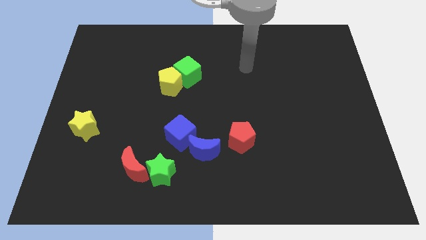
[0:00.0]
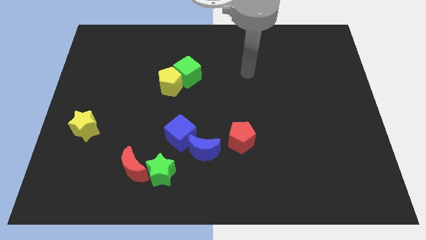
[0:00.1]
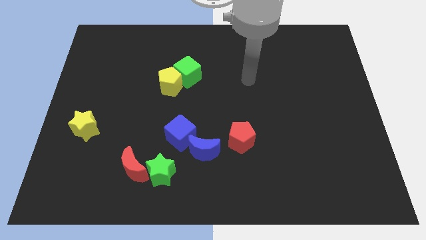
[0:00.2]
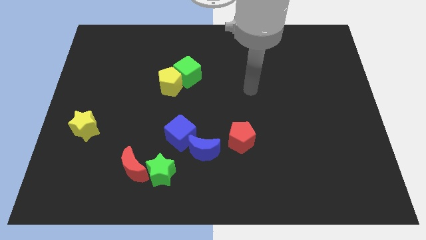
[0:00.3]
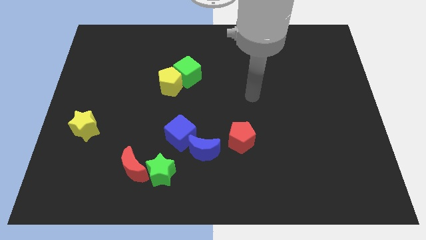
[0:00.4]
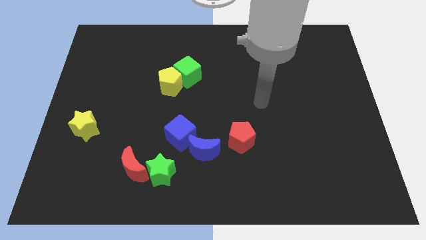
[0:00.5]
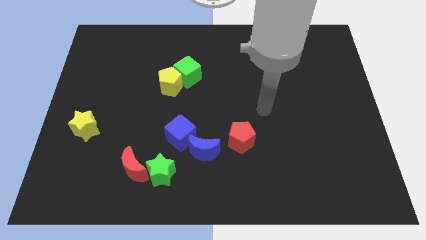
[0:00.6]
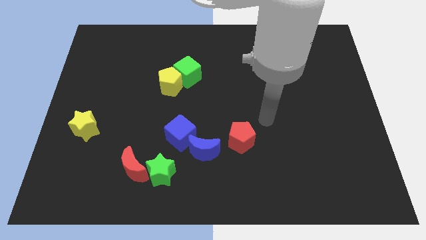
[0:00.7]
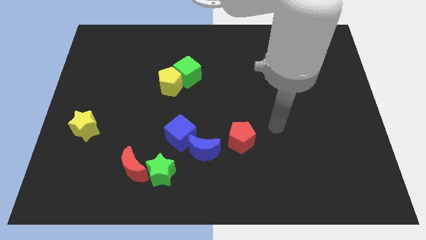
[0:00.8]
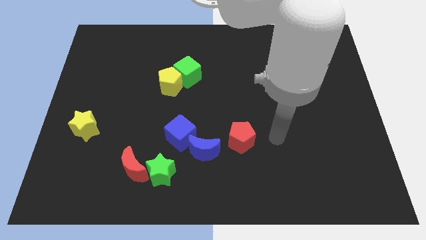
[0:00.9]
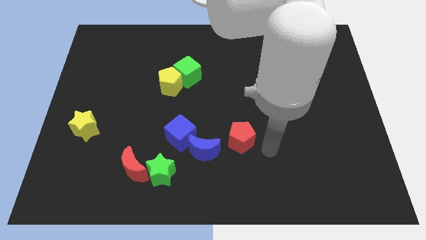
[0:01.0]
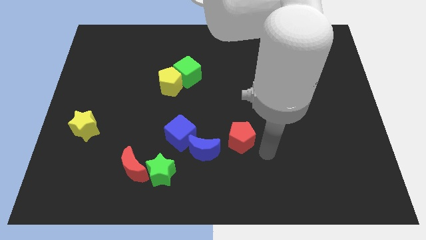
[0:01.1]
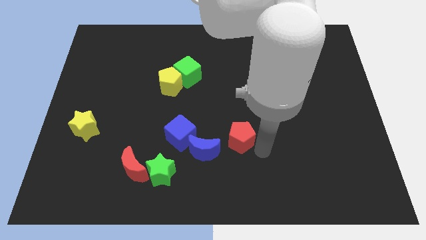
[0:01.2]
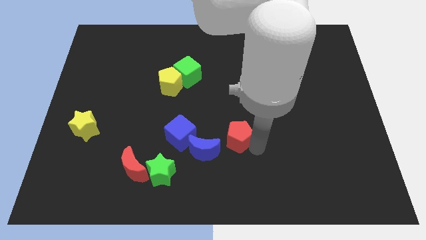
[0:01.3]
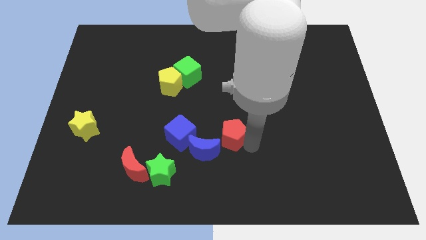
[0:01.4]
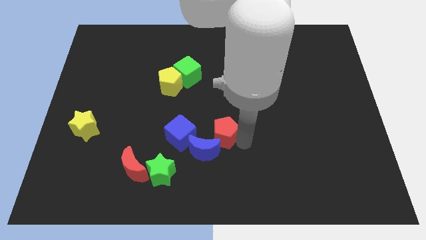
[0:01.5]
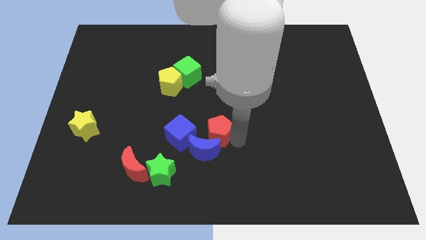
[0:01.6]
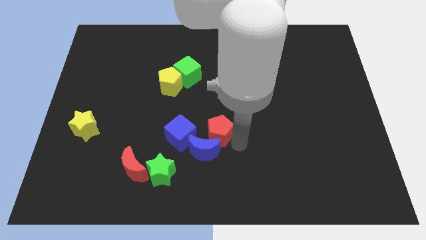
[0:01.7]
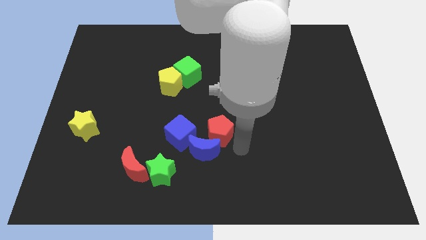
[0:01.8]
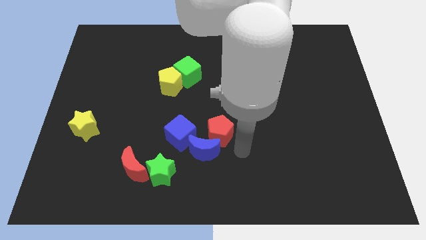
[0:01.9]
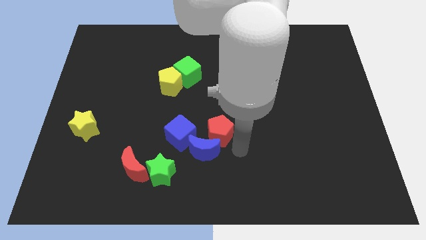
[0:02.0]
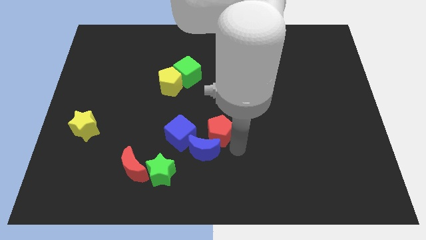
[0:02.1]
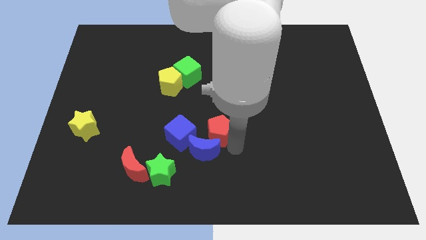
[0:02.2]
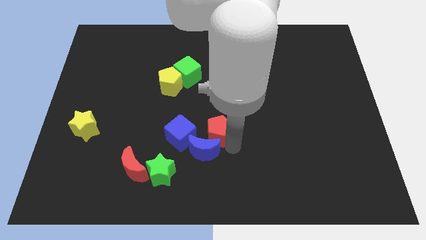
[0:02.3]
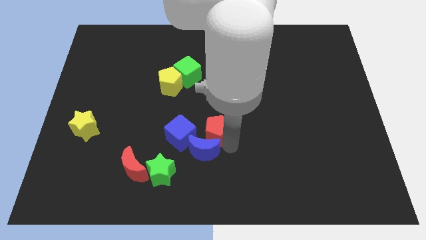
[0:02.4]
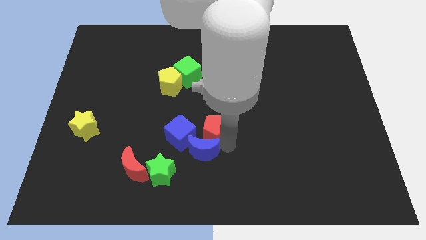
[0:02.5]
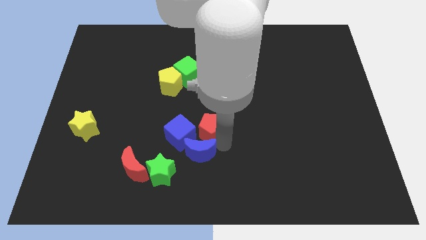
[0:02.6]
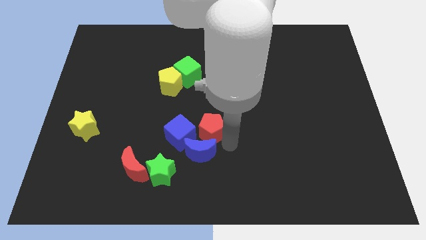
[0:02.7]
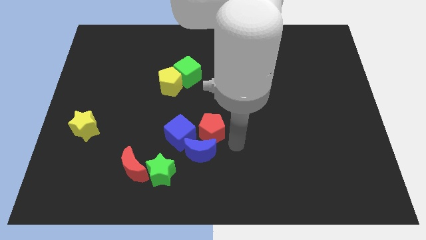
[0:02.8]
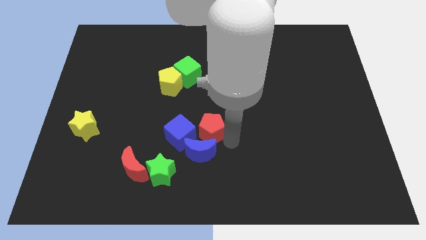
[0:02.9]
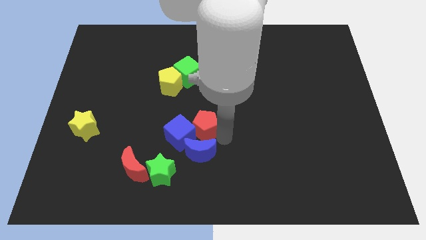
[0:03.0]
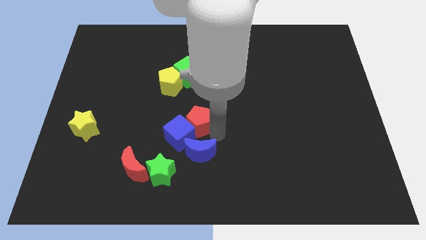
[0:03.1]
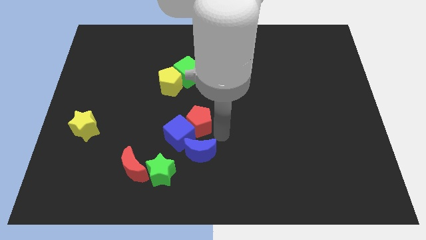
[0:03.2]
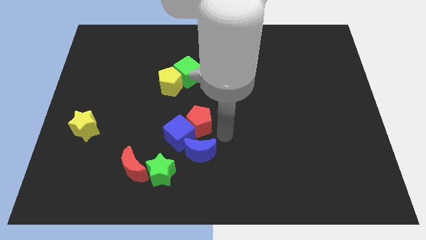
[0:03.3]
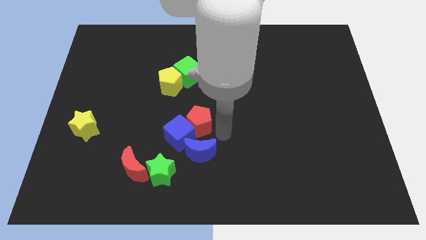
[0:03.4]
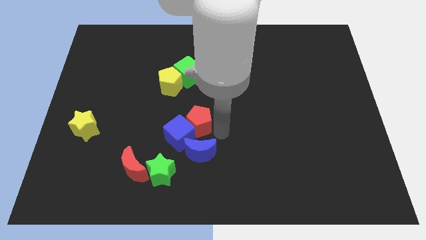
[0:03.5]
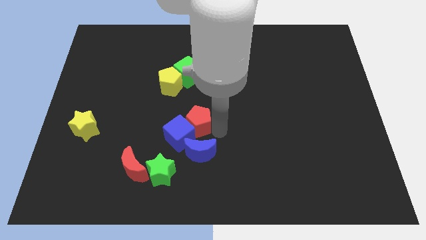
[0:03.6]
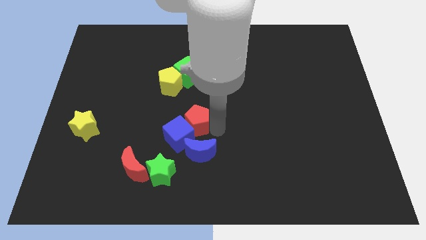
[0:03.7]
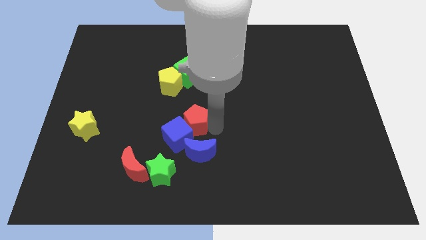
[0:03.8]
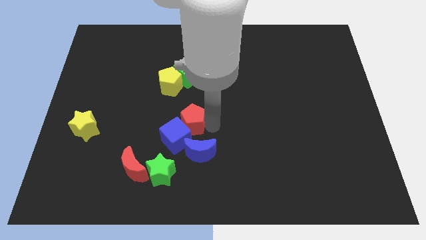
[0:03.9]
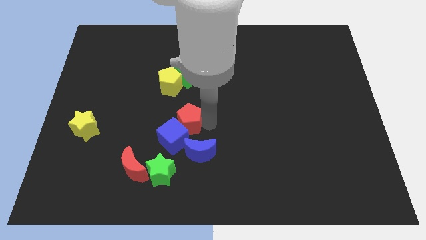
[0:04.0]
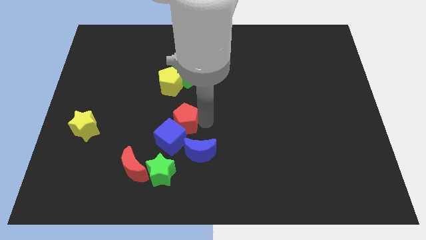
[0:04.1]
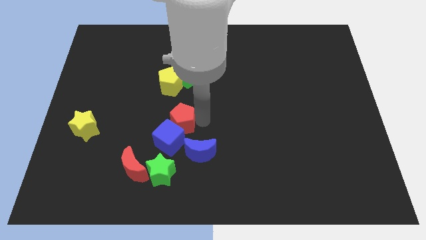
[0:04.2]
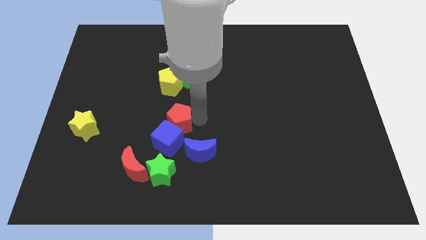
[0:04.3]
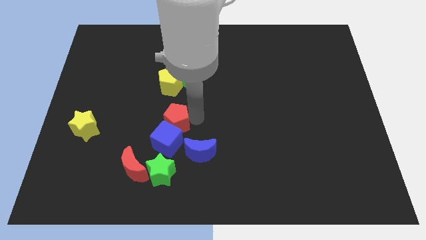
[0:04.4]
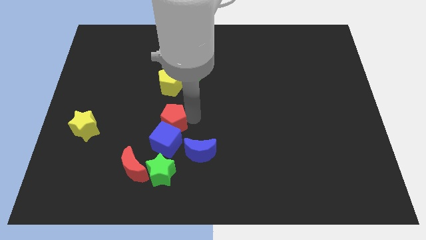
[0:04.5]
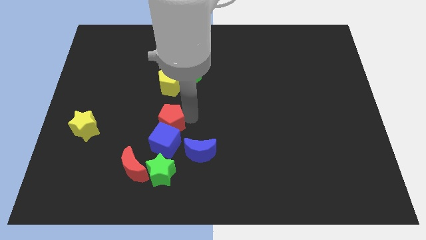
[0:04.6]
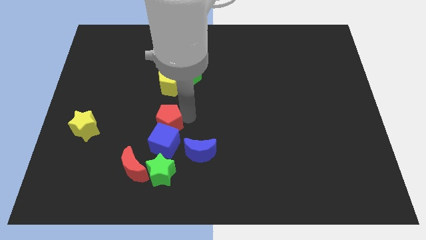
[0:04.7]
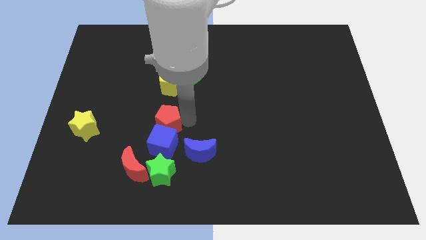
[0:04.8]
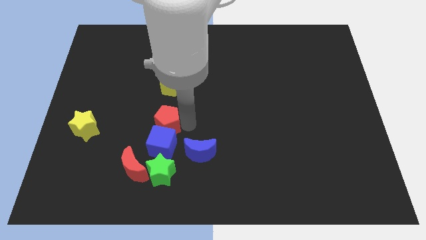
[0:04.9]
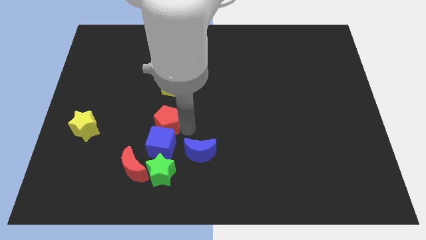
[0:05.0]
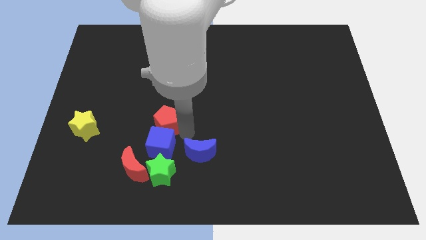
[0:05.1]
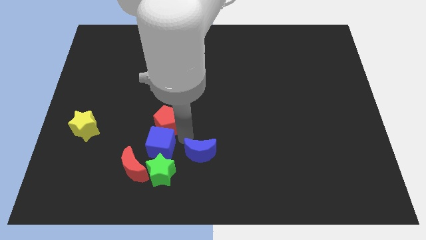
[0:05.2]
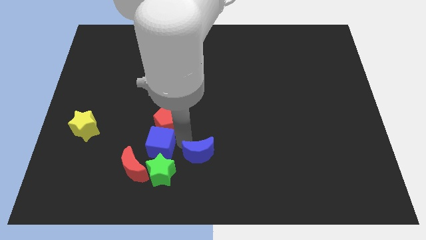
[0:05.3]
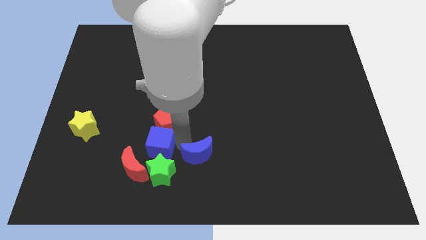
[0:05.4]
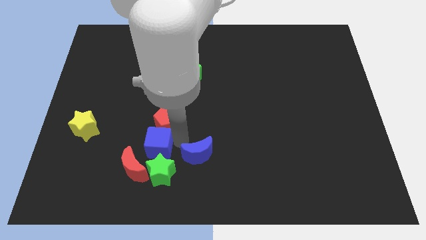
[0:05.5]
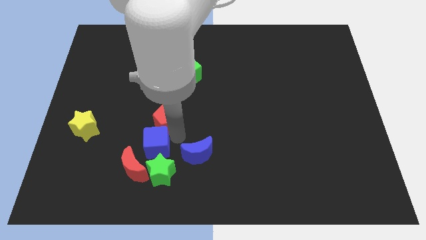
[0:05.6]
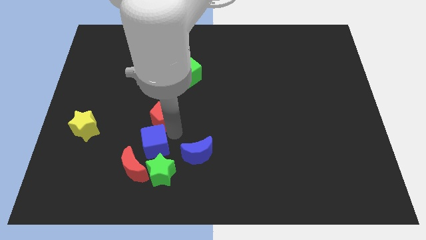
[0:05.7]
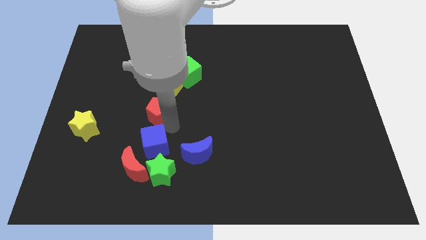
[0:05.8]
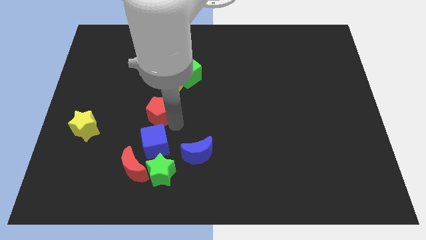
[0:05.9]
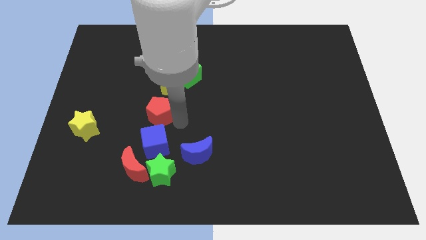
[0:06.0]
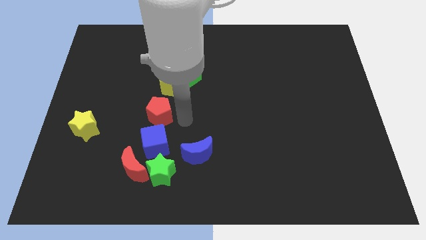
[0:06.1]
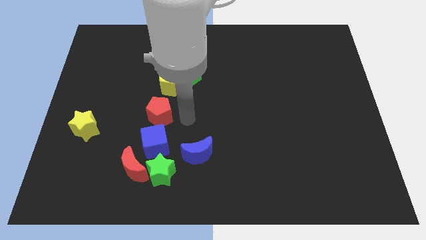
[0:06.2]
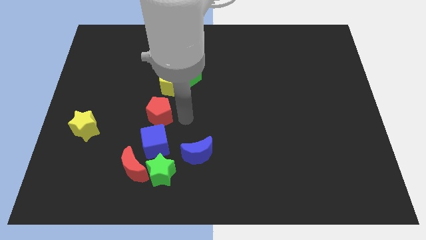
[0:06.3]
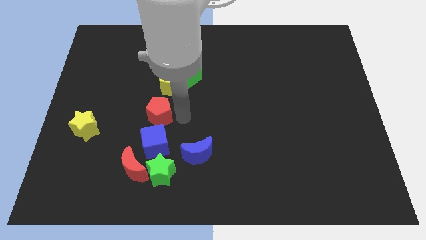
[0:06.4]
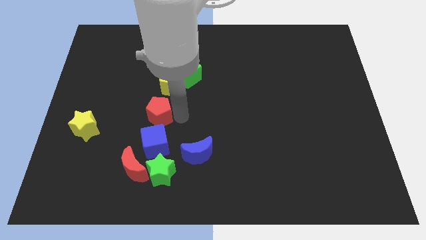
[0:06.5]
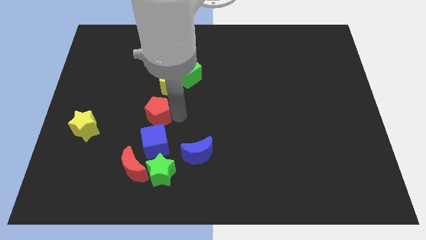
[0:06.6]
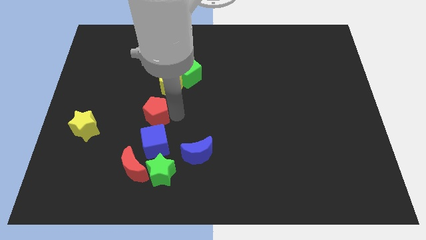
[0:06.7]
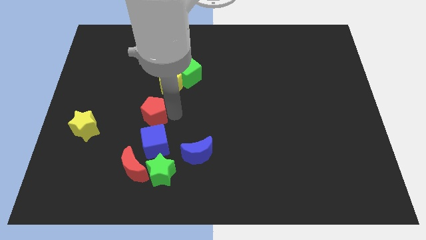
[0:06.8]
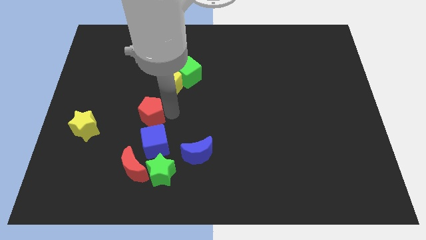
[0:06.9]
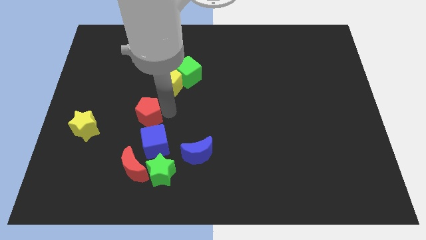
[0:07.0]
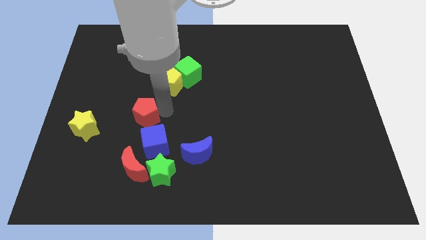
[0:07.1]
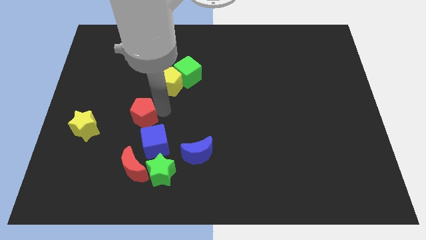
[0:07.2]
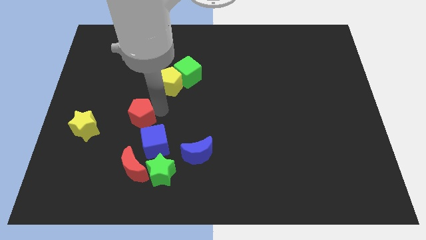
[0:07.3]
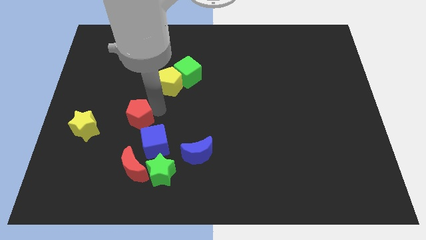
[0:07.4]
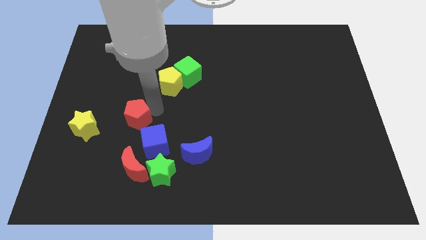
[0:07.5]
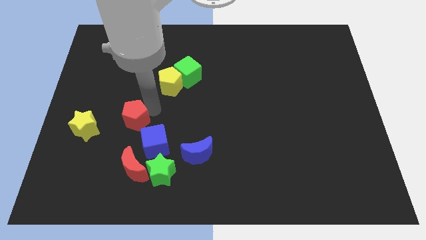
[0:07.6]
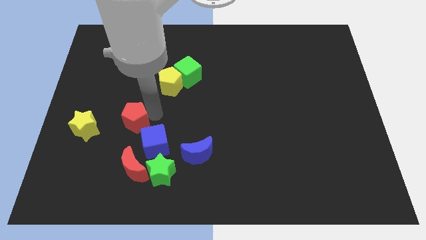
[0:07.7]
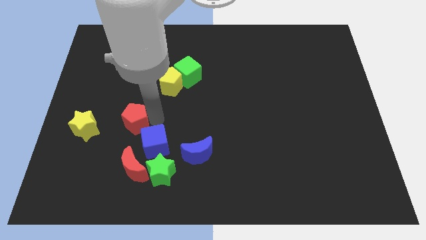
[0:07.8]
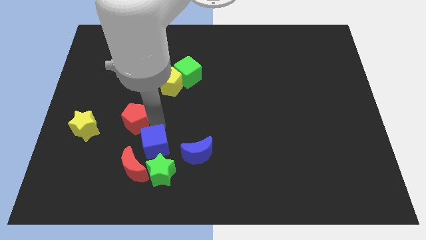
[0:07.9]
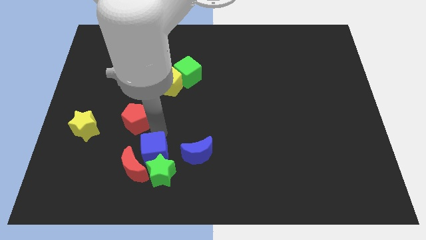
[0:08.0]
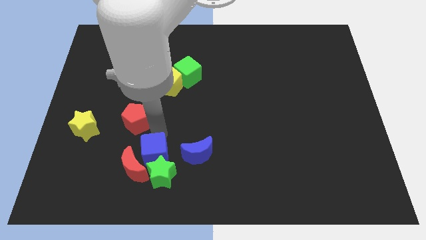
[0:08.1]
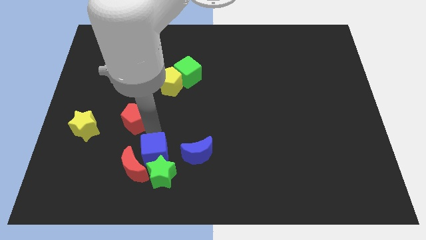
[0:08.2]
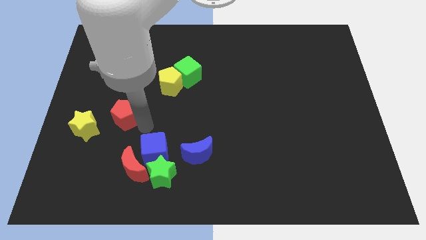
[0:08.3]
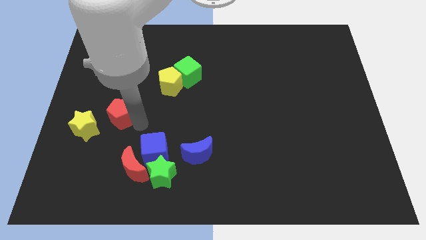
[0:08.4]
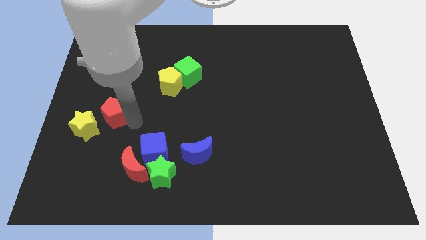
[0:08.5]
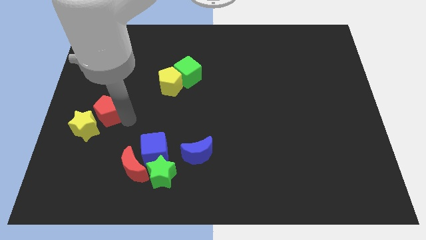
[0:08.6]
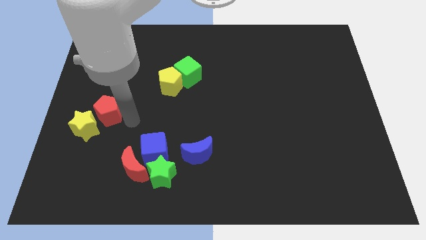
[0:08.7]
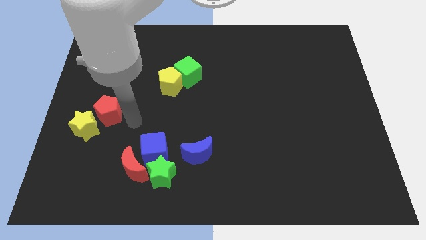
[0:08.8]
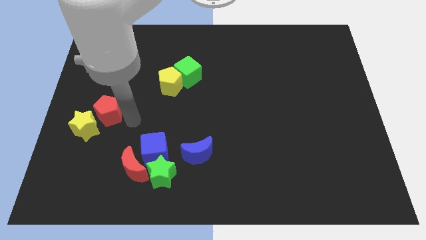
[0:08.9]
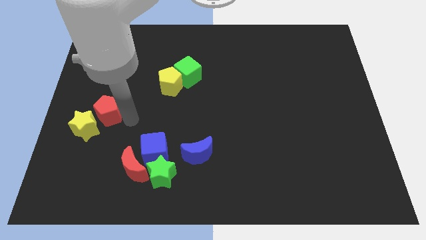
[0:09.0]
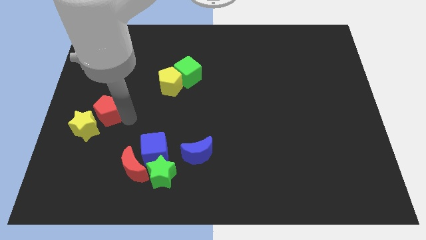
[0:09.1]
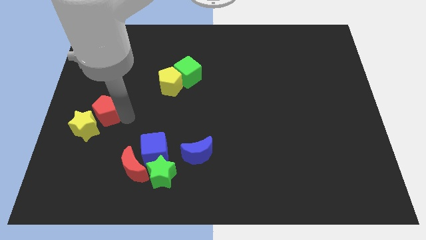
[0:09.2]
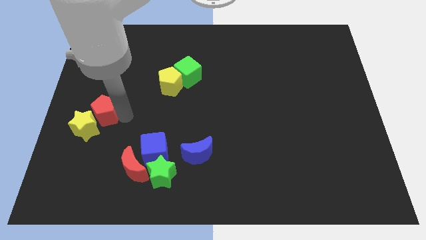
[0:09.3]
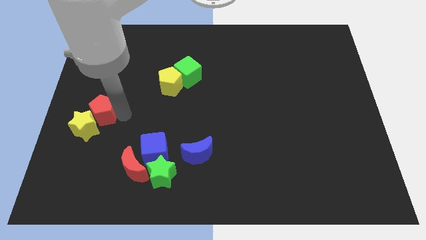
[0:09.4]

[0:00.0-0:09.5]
push the red pentagon to the left side of the board
